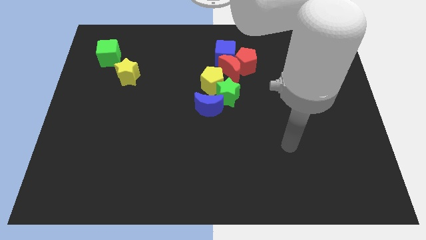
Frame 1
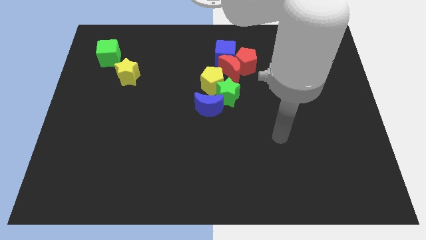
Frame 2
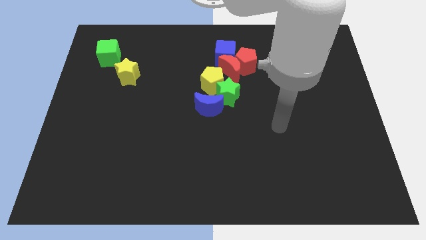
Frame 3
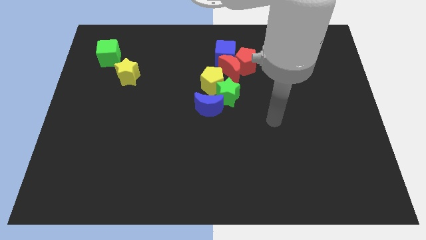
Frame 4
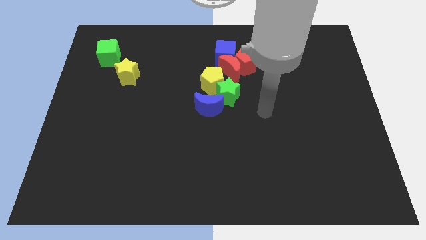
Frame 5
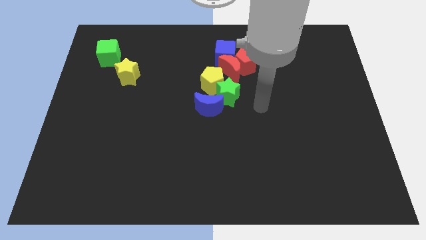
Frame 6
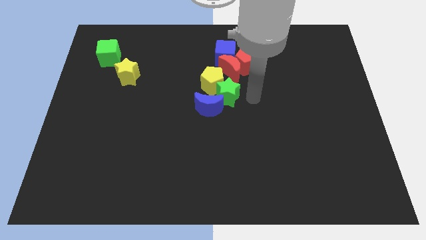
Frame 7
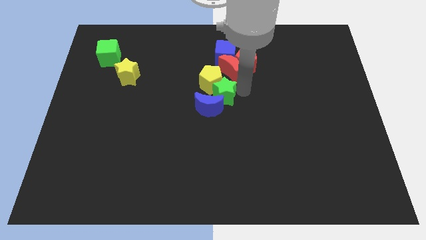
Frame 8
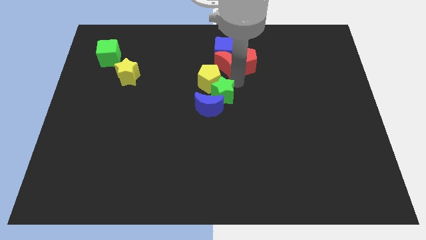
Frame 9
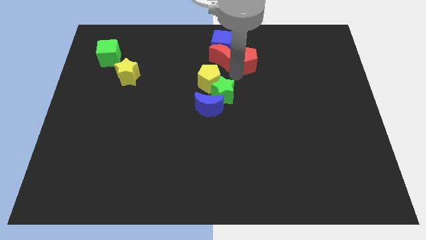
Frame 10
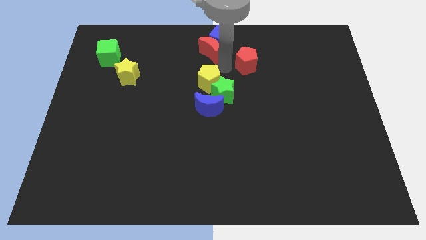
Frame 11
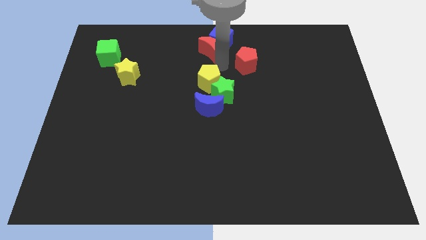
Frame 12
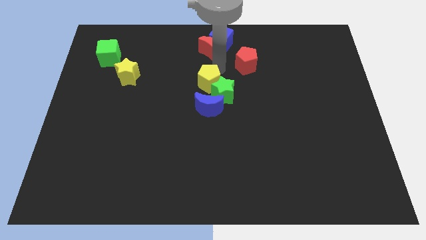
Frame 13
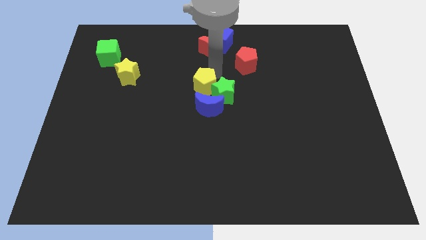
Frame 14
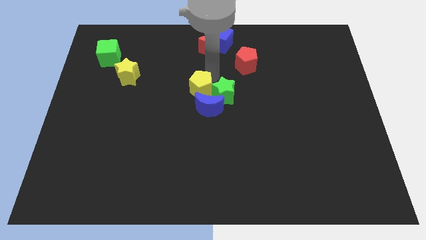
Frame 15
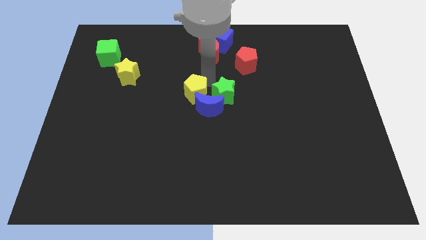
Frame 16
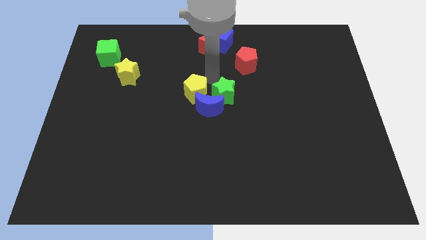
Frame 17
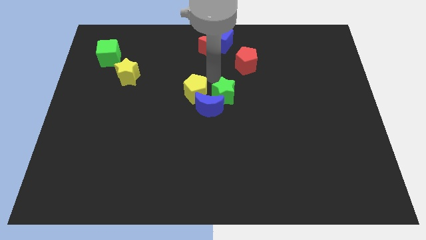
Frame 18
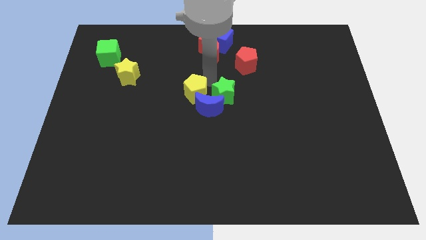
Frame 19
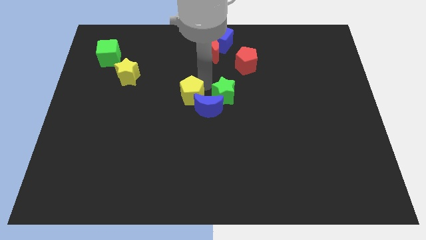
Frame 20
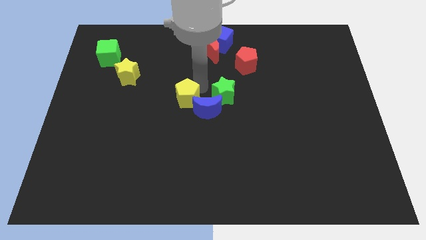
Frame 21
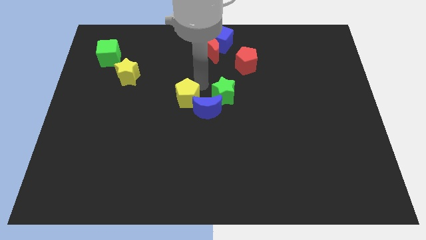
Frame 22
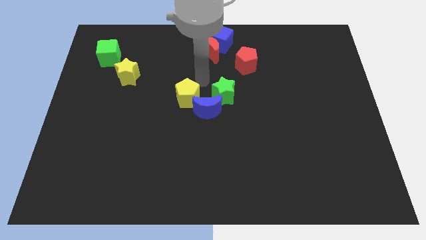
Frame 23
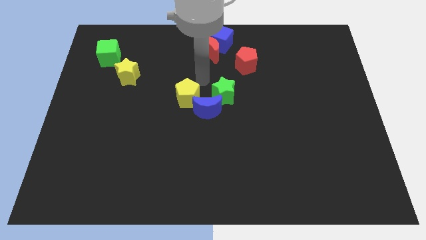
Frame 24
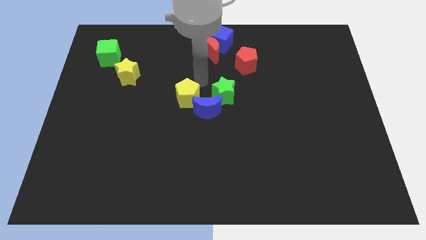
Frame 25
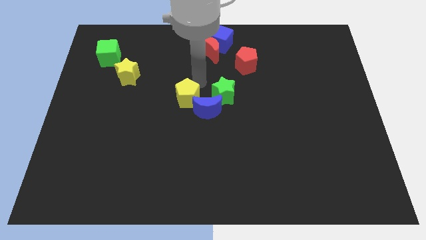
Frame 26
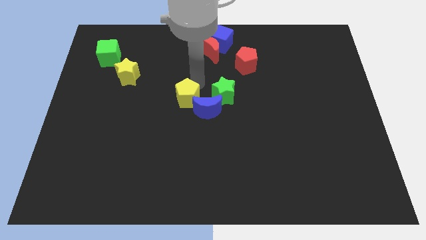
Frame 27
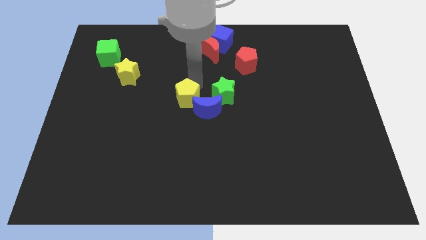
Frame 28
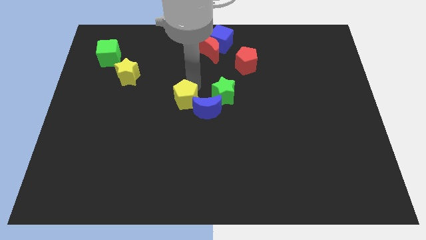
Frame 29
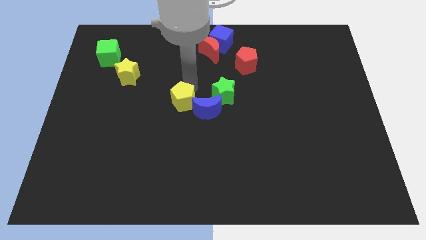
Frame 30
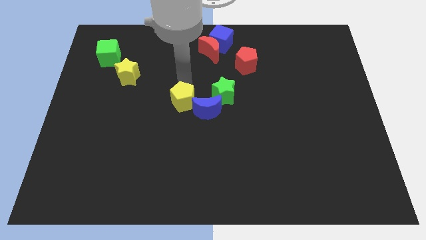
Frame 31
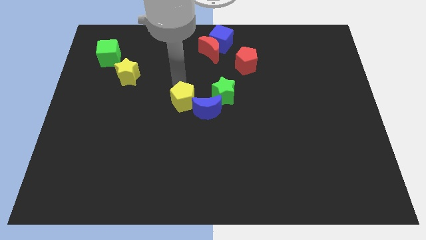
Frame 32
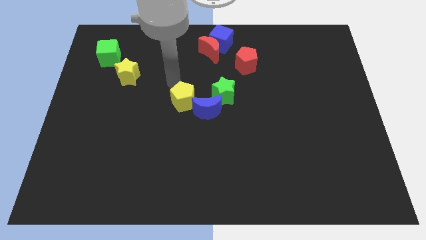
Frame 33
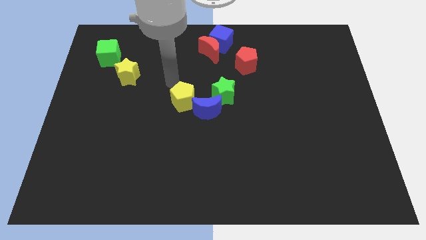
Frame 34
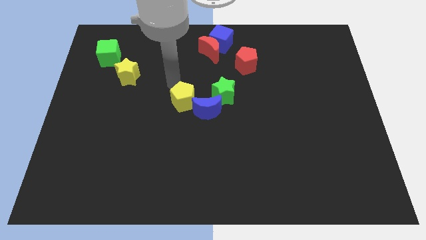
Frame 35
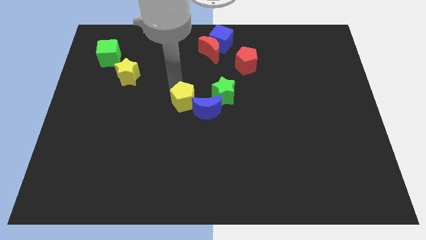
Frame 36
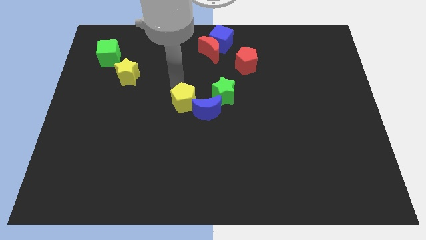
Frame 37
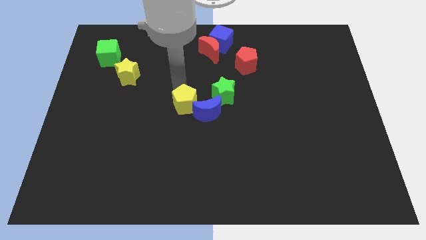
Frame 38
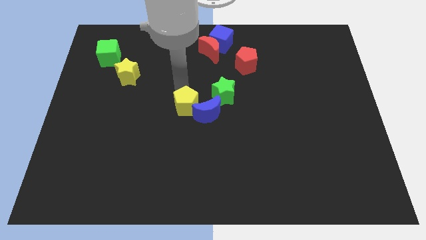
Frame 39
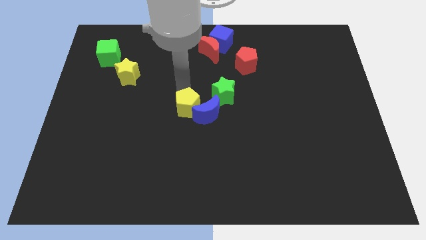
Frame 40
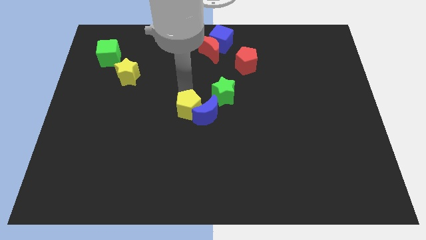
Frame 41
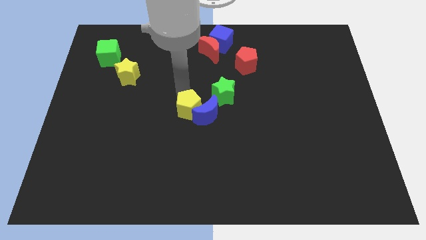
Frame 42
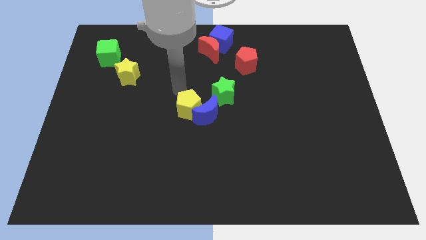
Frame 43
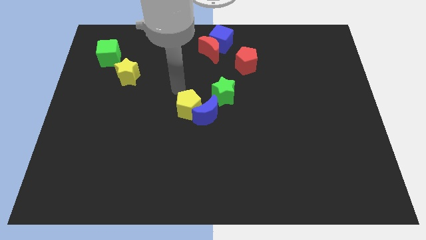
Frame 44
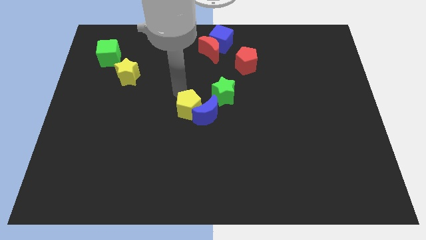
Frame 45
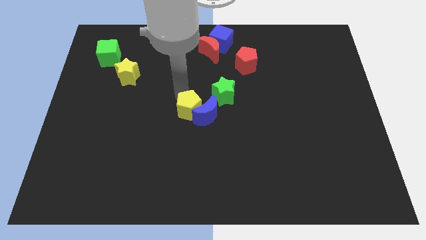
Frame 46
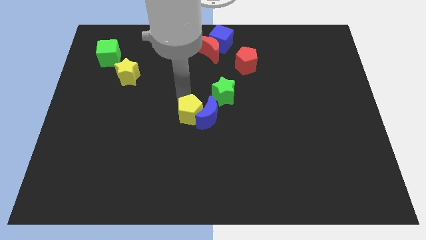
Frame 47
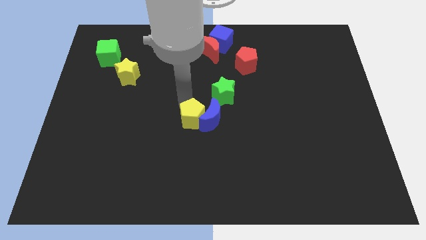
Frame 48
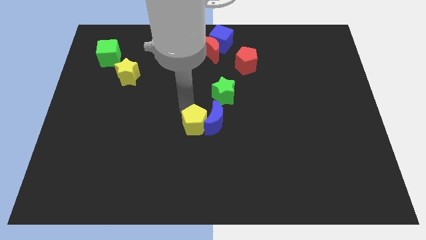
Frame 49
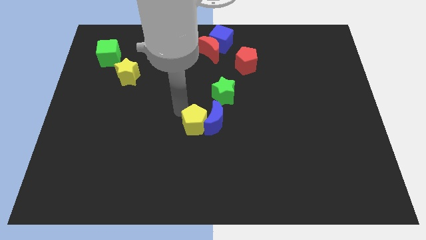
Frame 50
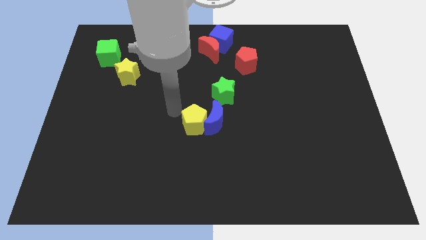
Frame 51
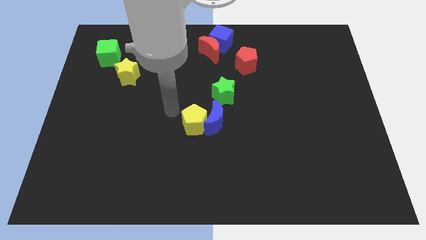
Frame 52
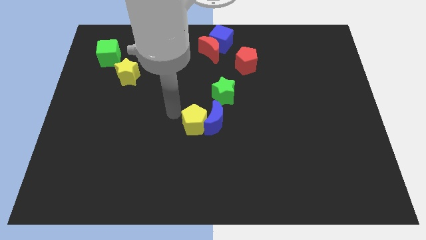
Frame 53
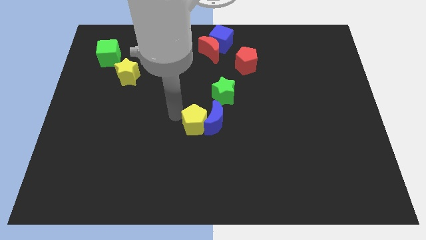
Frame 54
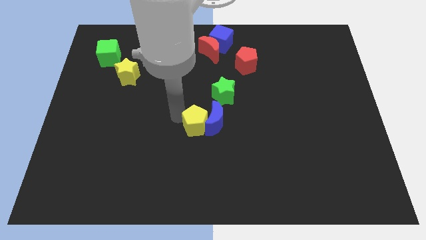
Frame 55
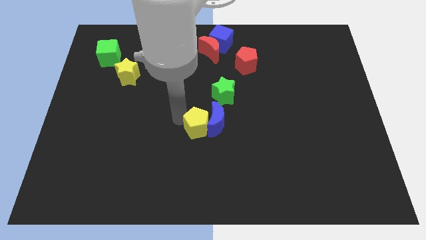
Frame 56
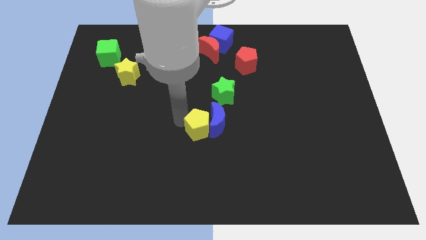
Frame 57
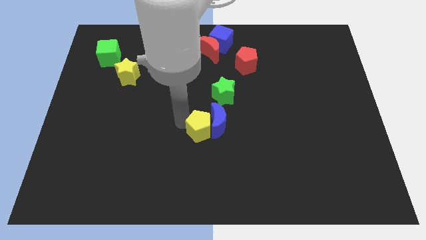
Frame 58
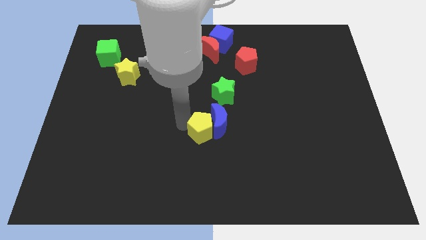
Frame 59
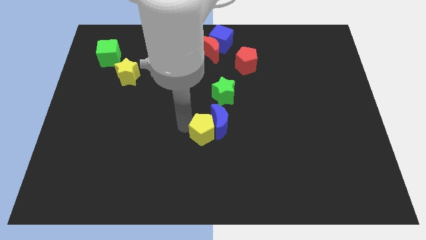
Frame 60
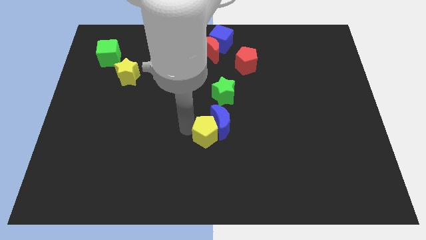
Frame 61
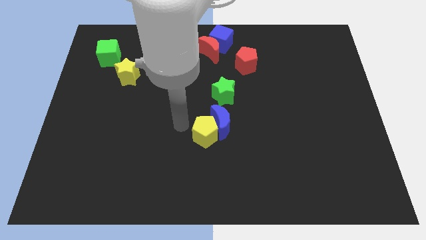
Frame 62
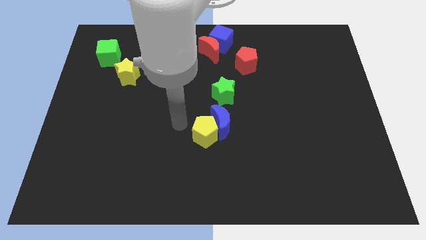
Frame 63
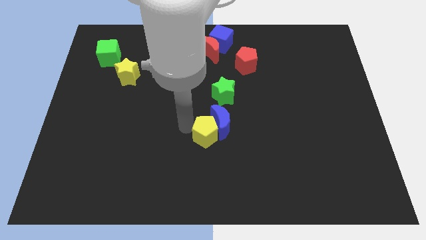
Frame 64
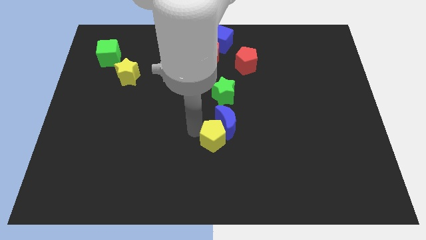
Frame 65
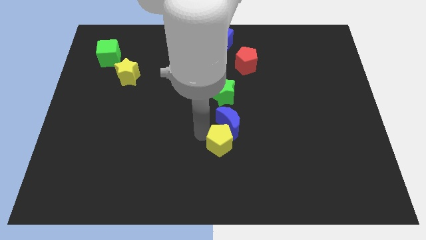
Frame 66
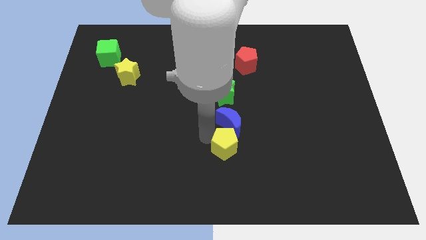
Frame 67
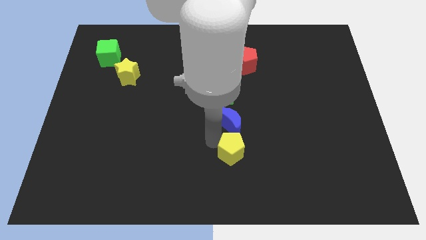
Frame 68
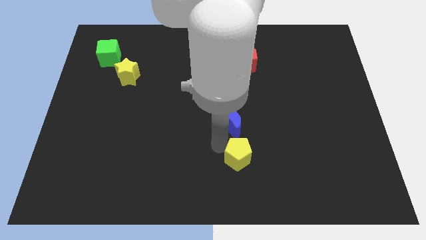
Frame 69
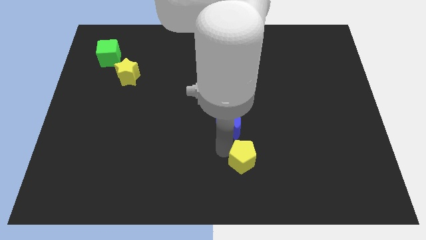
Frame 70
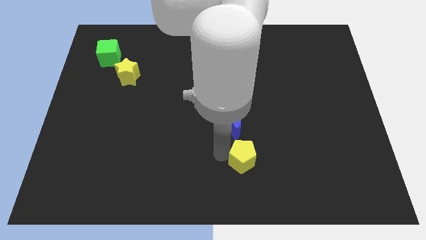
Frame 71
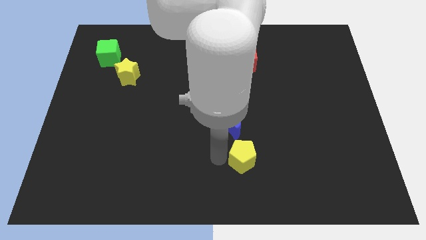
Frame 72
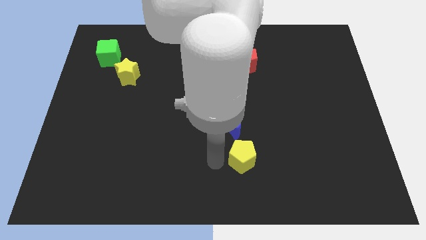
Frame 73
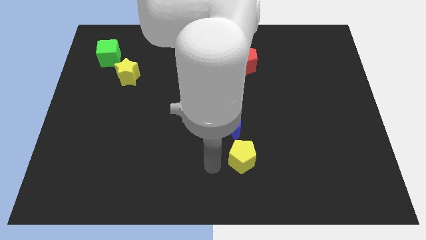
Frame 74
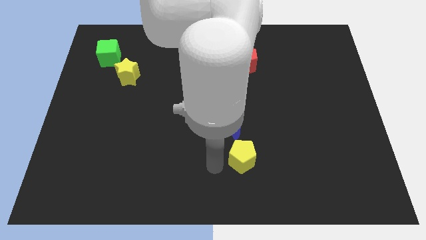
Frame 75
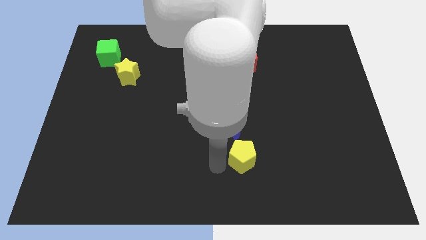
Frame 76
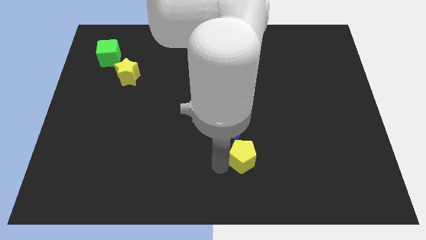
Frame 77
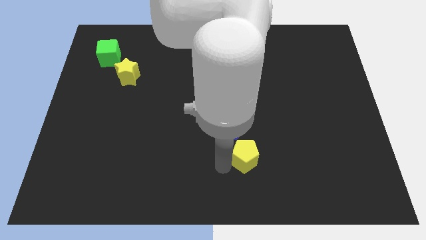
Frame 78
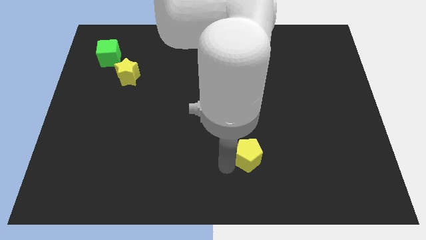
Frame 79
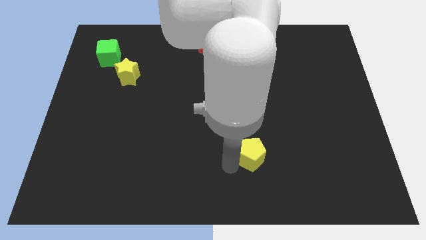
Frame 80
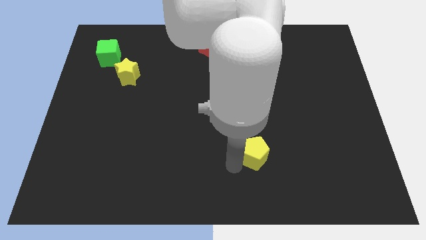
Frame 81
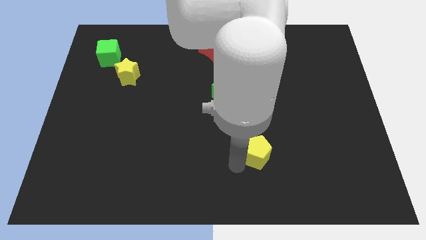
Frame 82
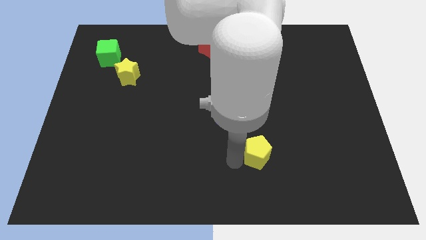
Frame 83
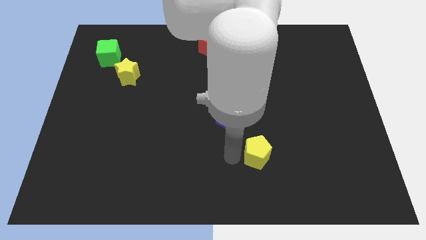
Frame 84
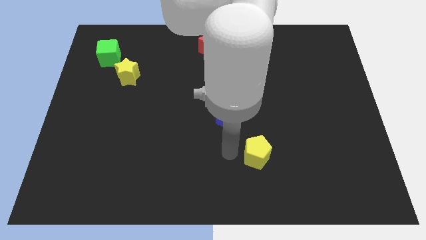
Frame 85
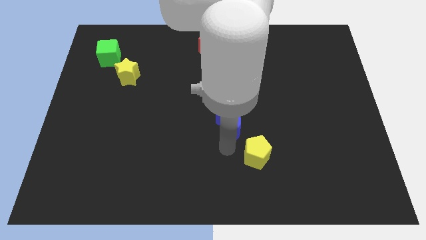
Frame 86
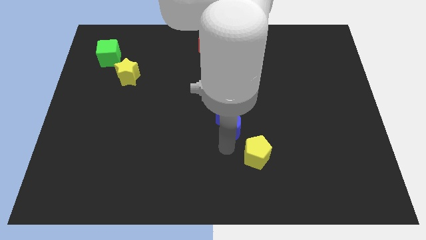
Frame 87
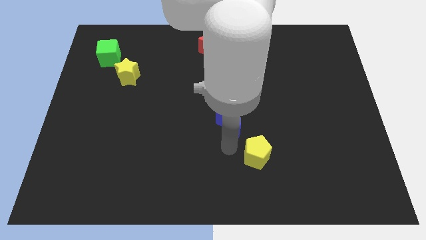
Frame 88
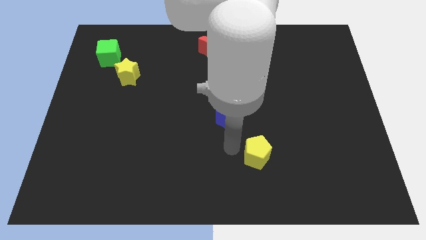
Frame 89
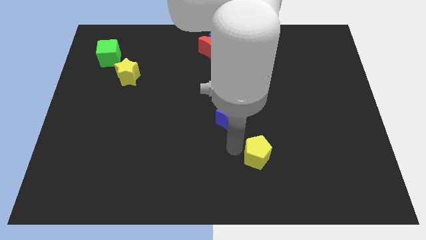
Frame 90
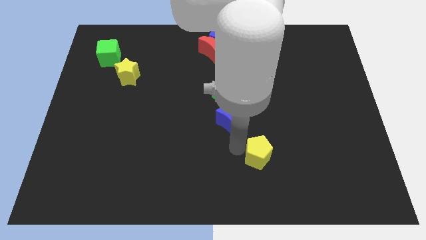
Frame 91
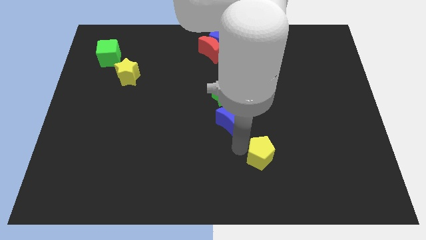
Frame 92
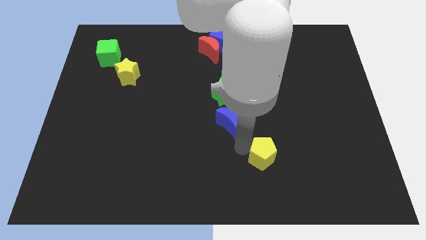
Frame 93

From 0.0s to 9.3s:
move the yellow pentagon down and then right
